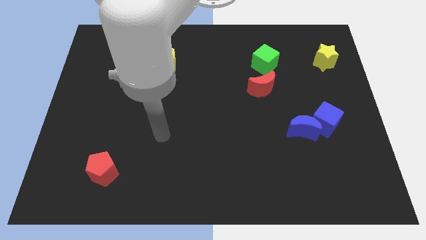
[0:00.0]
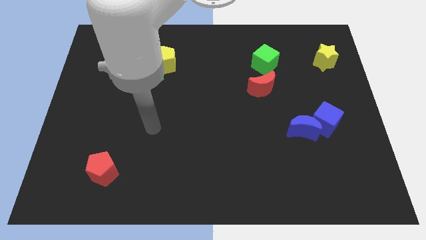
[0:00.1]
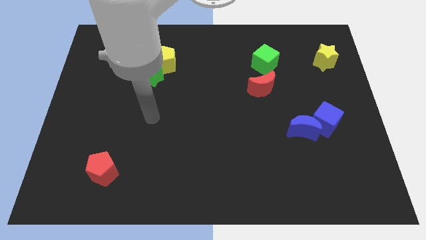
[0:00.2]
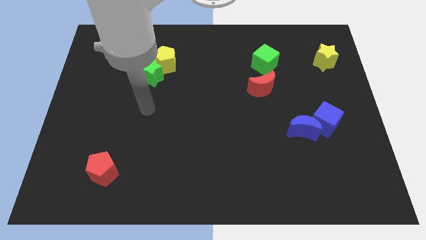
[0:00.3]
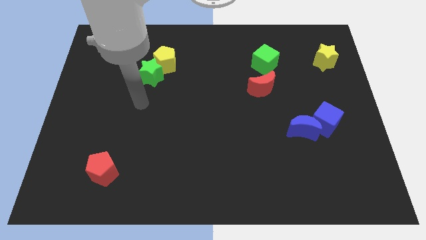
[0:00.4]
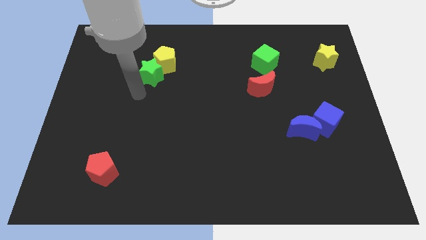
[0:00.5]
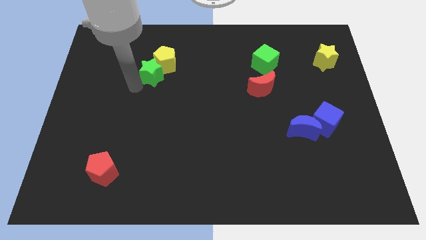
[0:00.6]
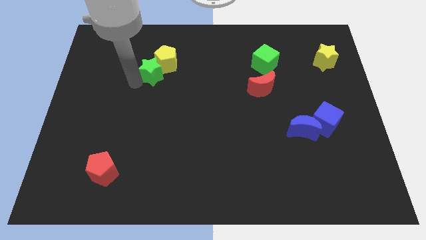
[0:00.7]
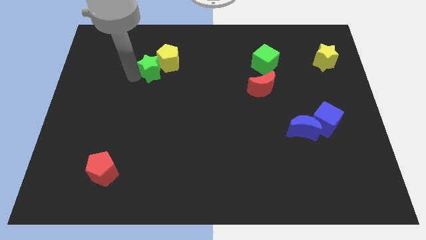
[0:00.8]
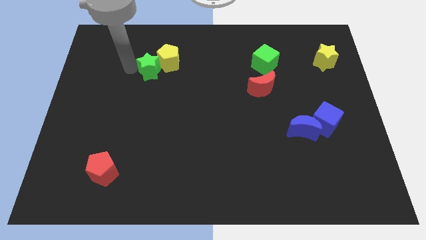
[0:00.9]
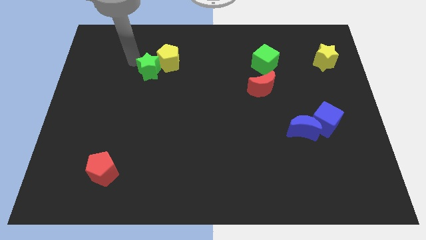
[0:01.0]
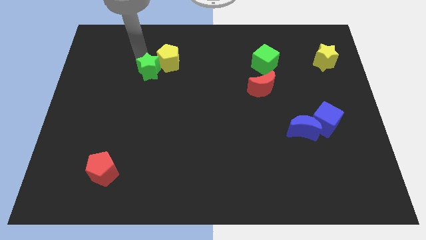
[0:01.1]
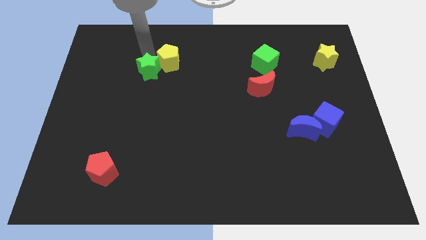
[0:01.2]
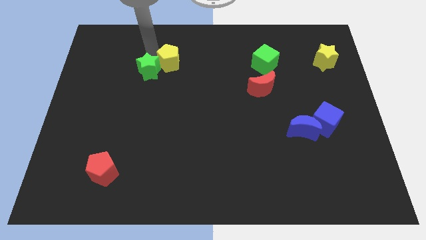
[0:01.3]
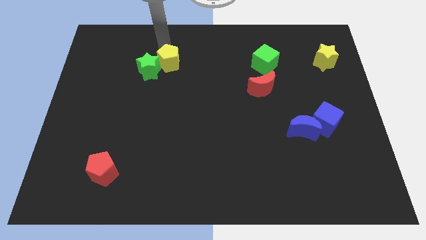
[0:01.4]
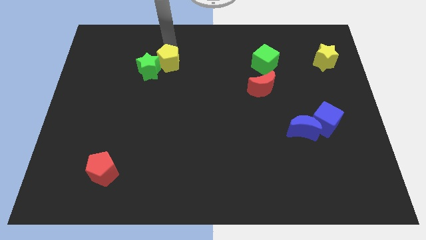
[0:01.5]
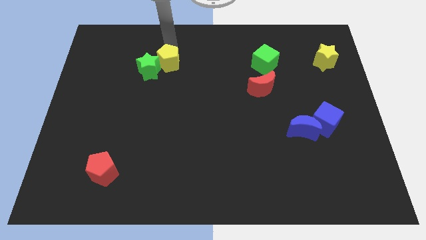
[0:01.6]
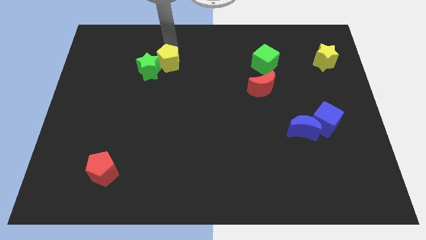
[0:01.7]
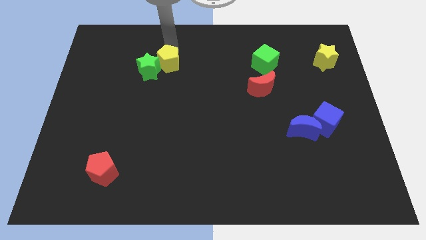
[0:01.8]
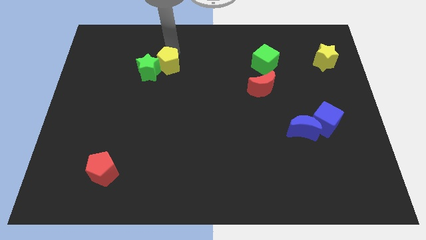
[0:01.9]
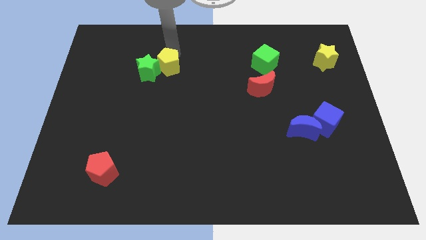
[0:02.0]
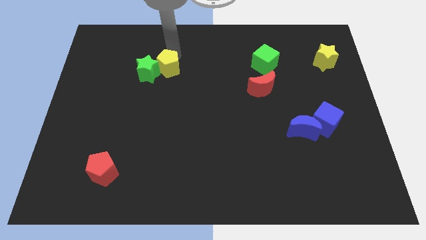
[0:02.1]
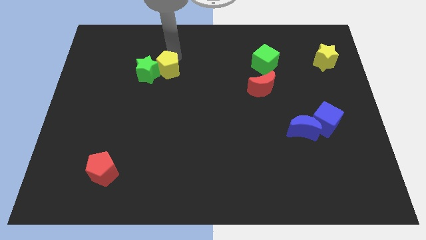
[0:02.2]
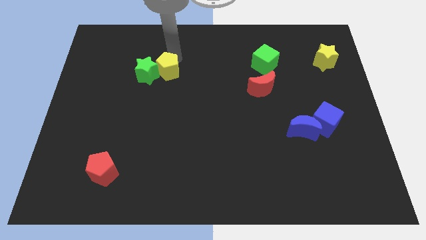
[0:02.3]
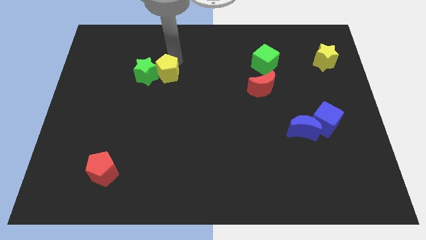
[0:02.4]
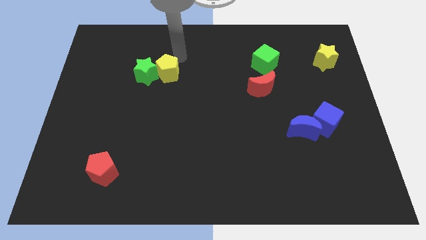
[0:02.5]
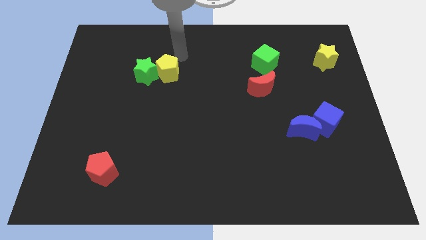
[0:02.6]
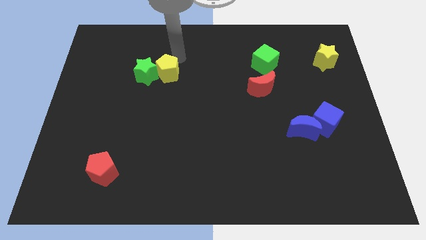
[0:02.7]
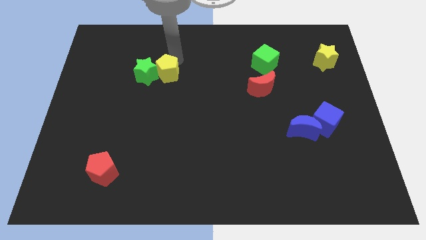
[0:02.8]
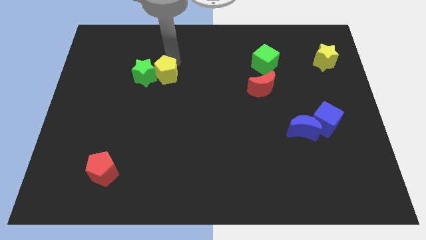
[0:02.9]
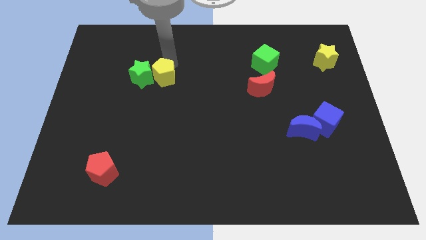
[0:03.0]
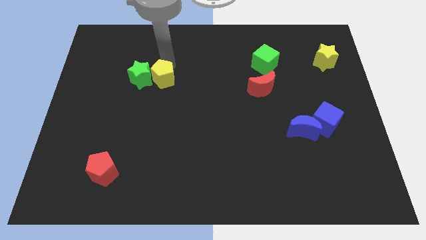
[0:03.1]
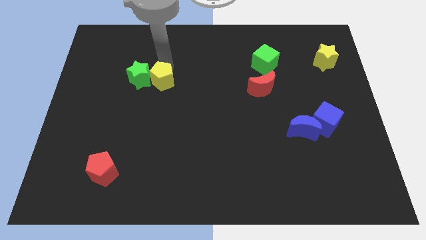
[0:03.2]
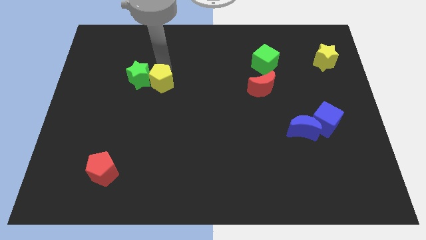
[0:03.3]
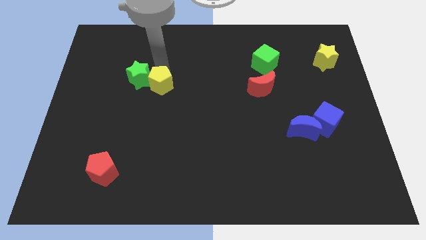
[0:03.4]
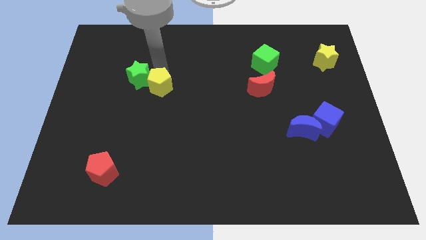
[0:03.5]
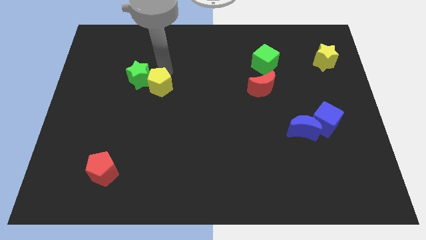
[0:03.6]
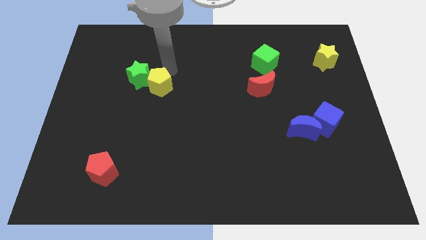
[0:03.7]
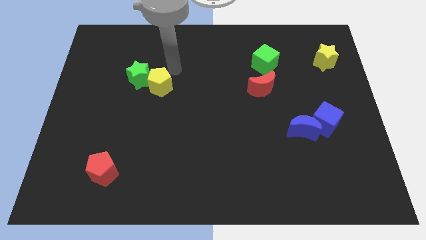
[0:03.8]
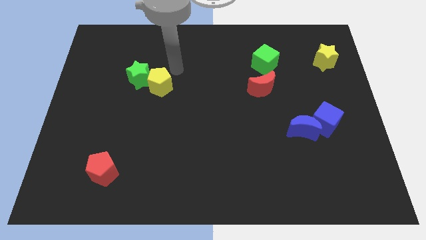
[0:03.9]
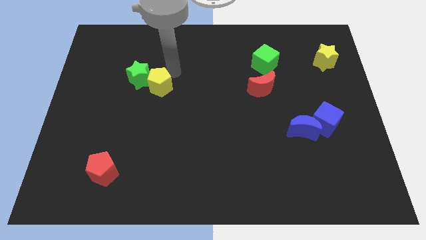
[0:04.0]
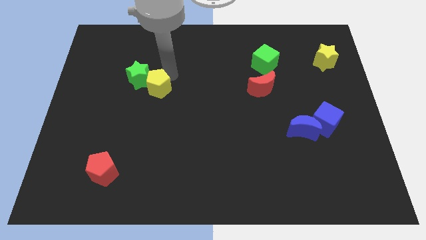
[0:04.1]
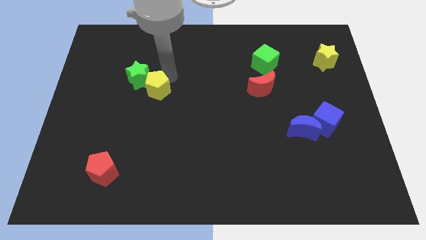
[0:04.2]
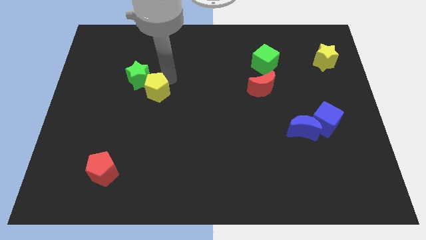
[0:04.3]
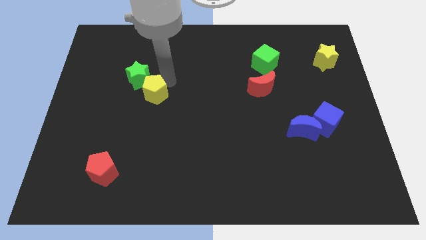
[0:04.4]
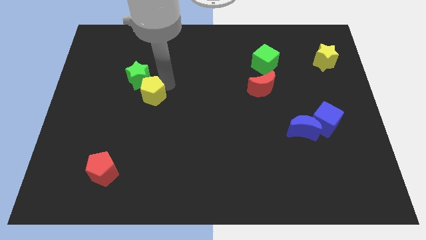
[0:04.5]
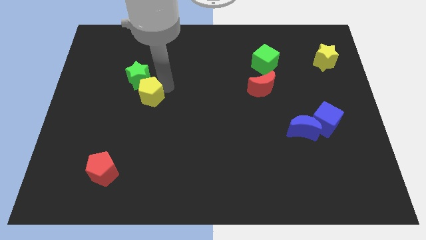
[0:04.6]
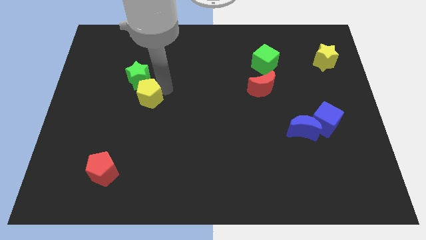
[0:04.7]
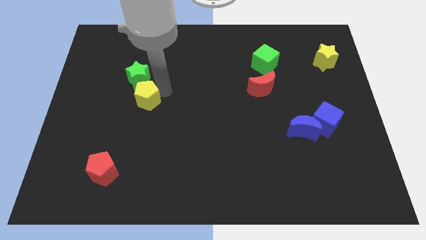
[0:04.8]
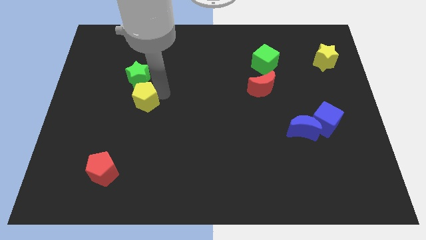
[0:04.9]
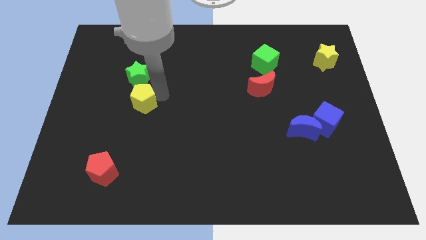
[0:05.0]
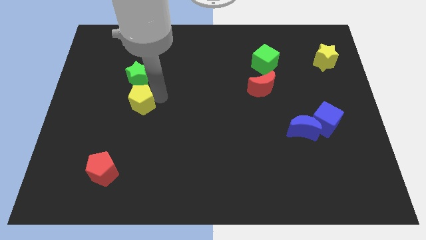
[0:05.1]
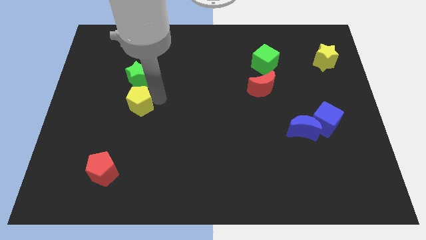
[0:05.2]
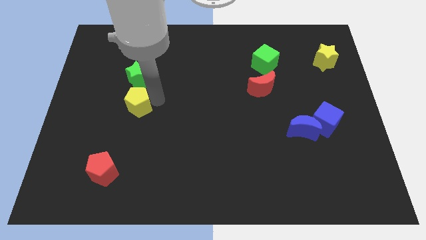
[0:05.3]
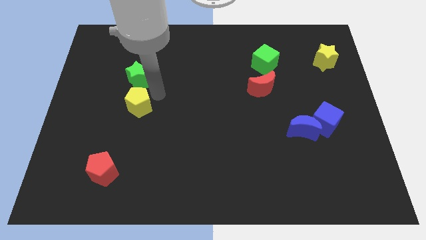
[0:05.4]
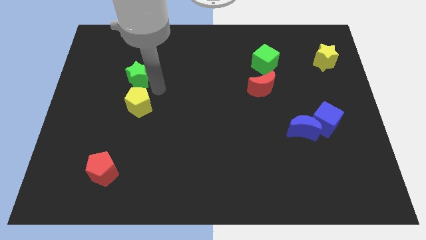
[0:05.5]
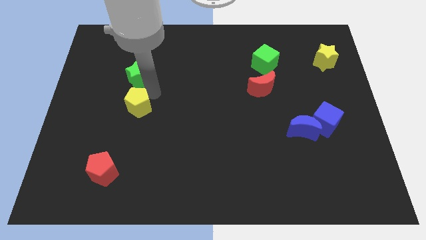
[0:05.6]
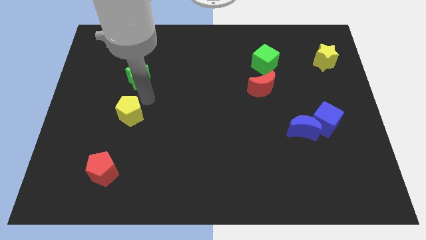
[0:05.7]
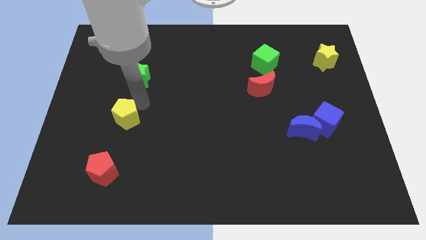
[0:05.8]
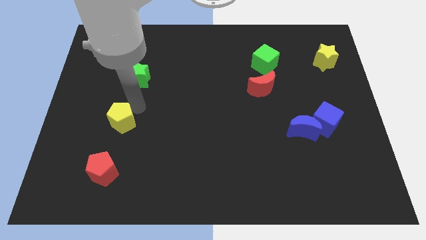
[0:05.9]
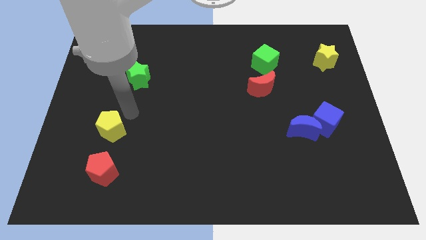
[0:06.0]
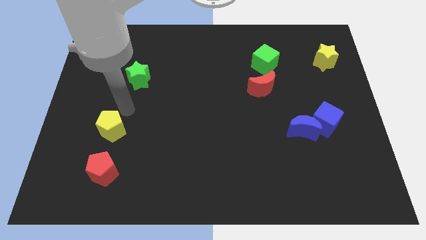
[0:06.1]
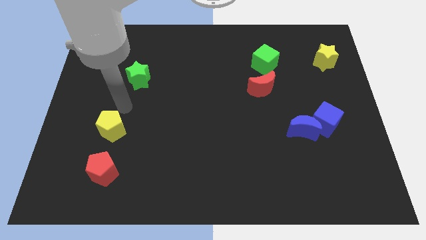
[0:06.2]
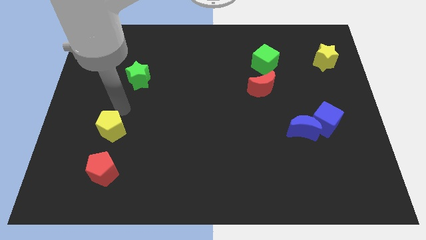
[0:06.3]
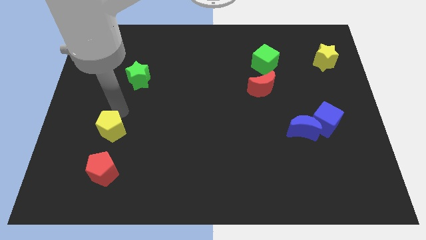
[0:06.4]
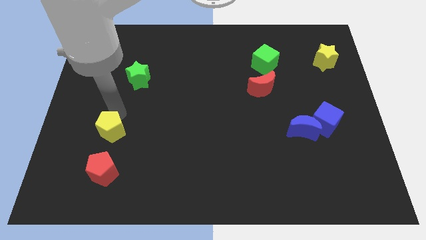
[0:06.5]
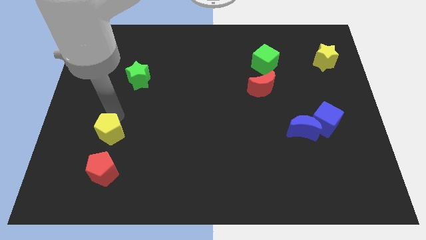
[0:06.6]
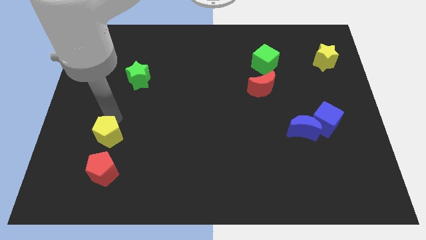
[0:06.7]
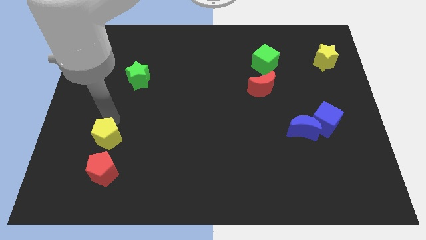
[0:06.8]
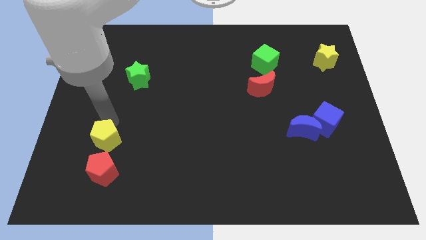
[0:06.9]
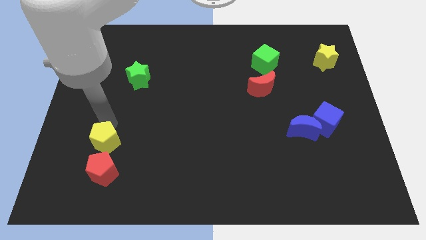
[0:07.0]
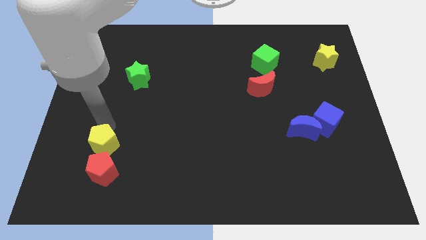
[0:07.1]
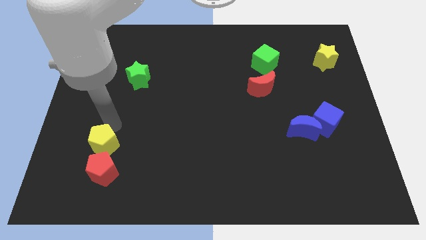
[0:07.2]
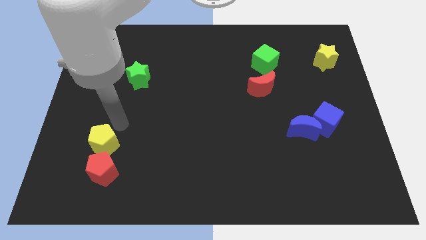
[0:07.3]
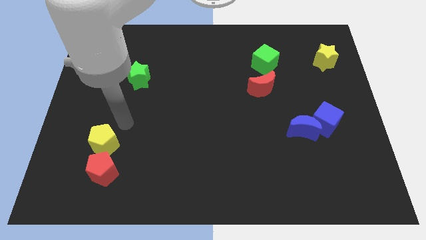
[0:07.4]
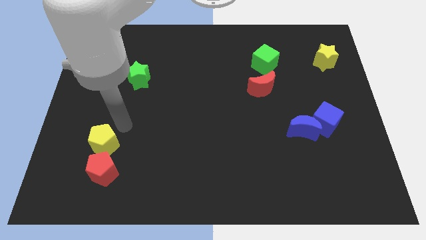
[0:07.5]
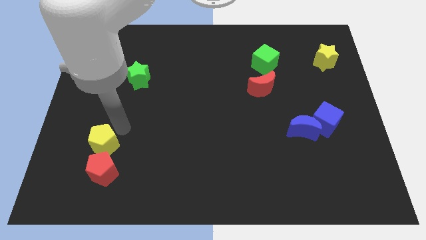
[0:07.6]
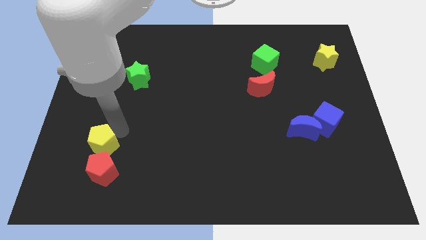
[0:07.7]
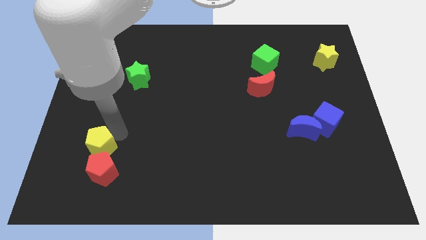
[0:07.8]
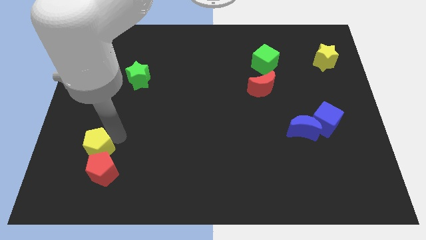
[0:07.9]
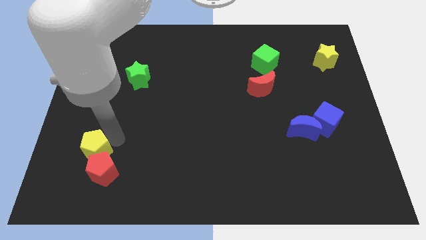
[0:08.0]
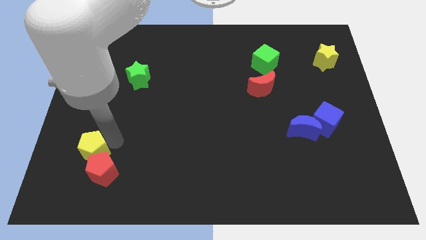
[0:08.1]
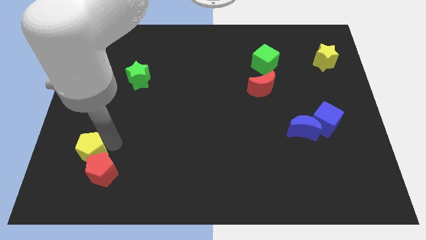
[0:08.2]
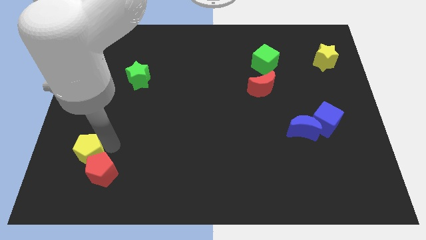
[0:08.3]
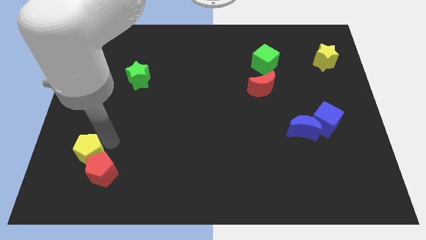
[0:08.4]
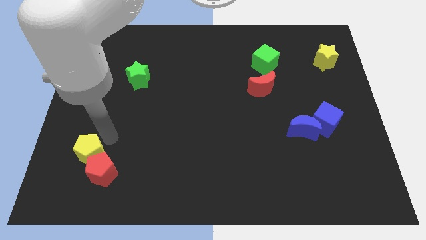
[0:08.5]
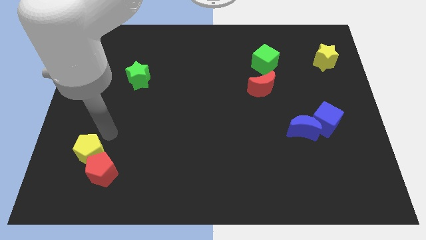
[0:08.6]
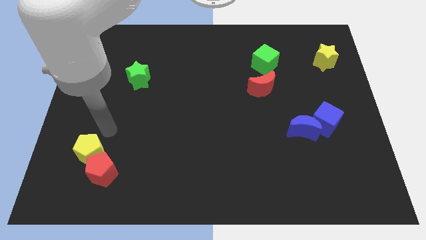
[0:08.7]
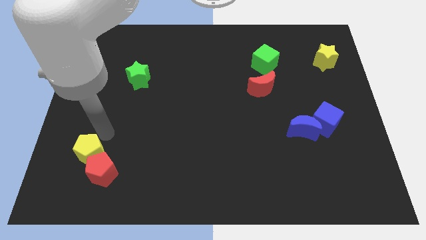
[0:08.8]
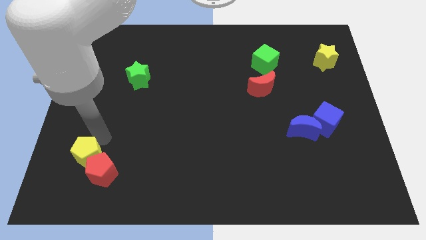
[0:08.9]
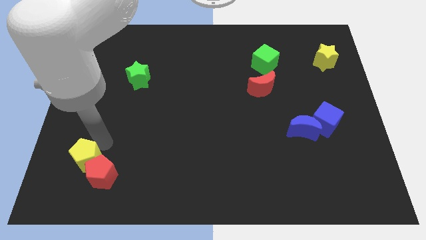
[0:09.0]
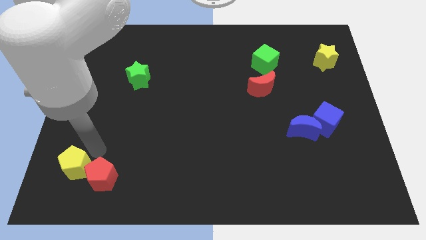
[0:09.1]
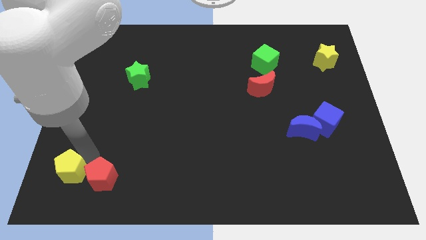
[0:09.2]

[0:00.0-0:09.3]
slide the yellow pentagon to the bottom left
